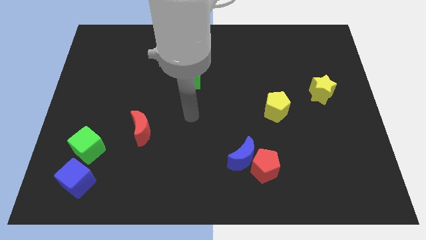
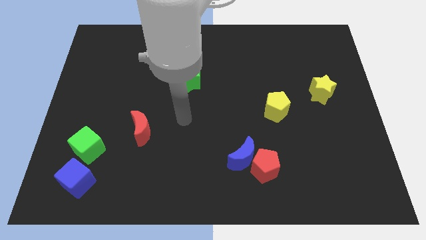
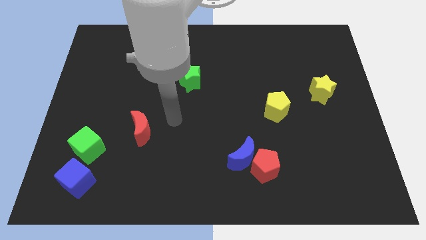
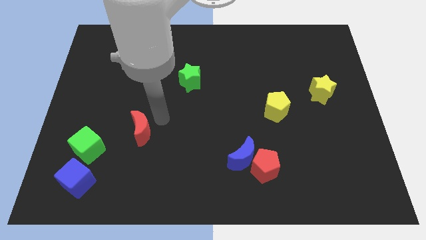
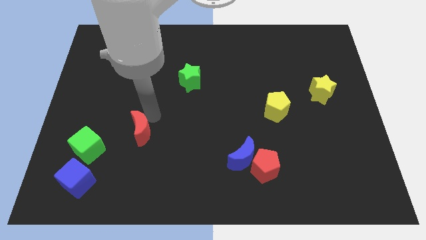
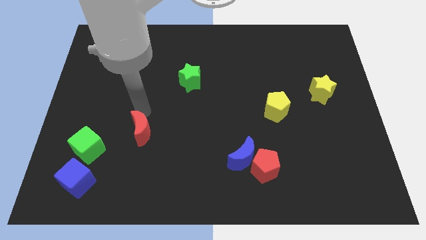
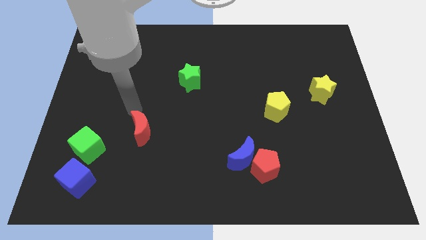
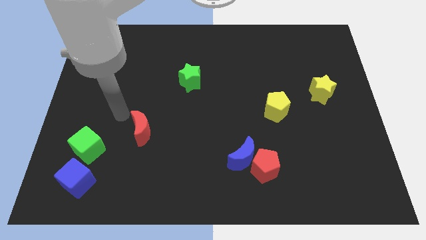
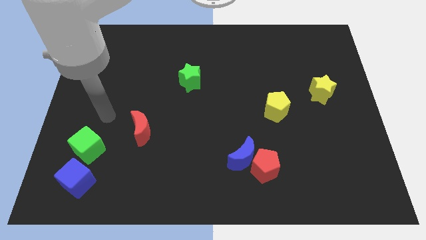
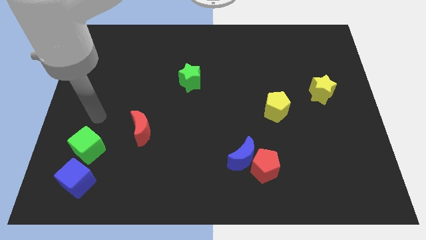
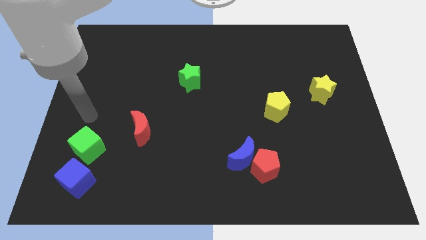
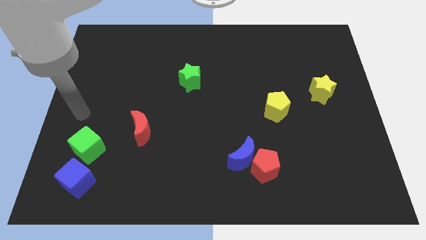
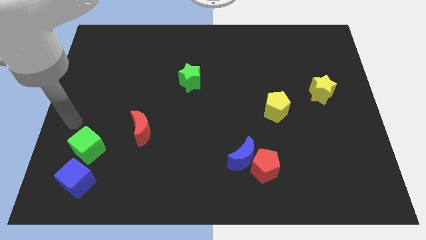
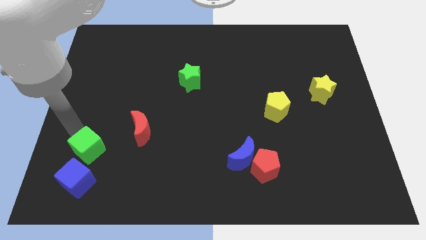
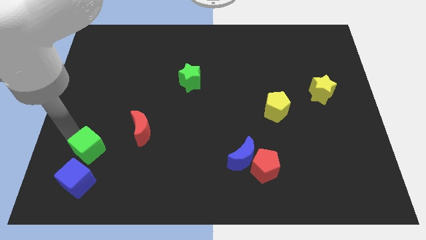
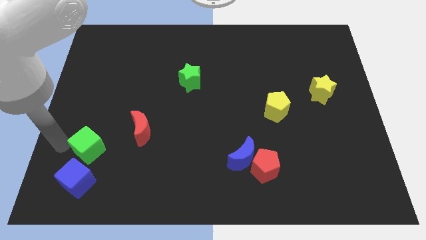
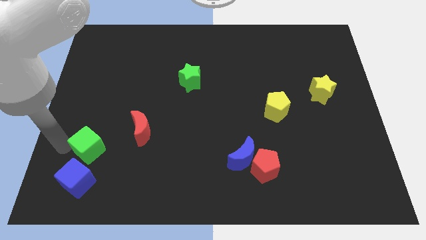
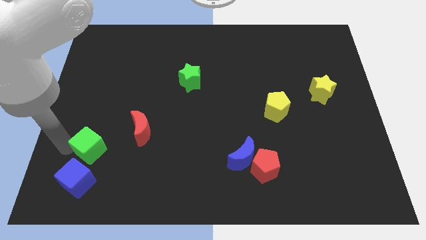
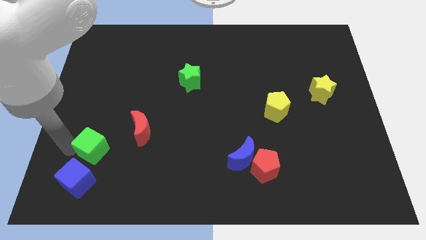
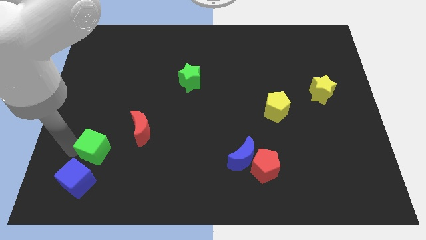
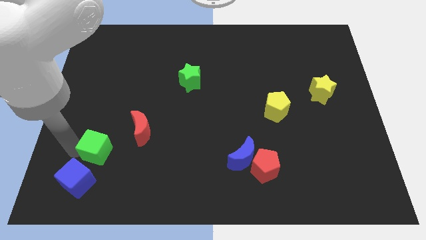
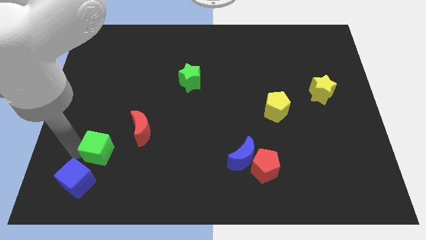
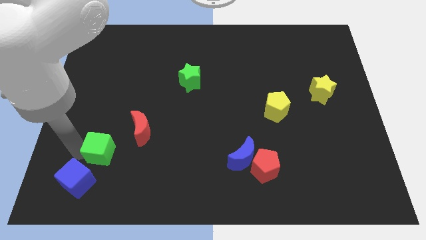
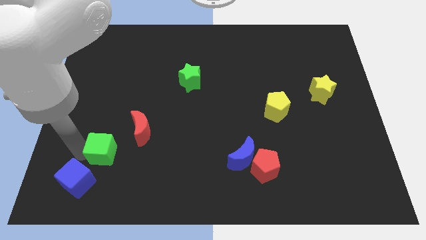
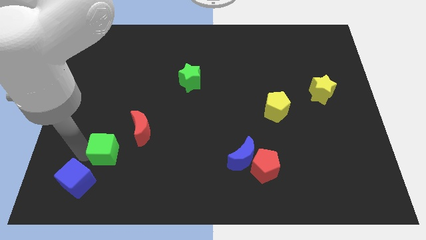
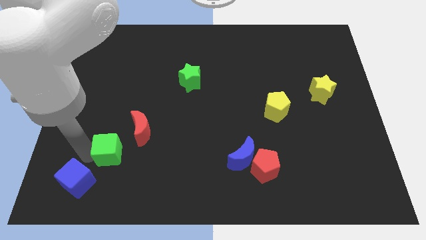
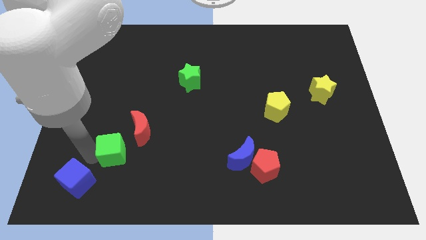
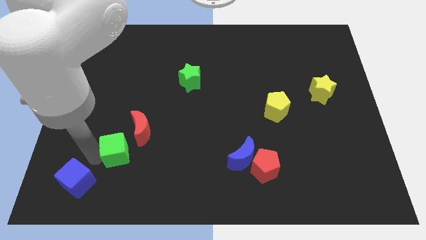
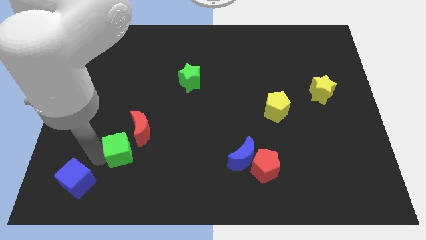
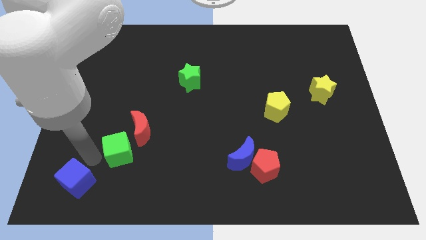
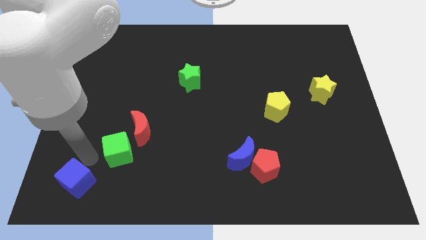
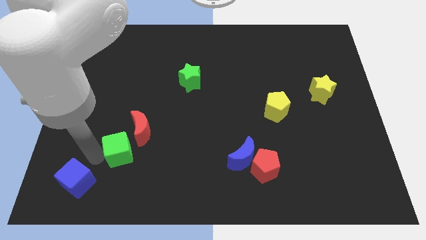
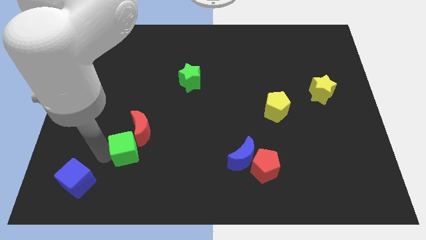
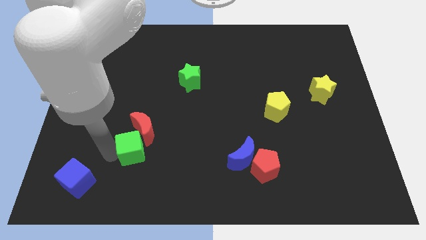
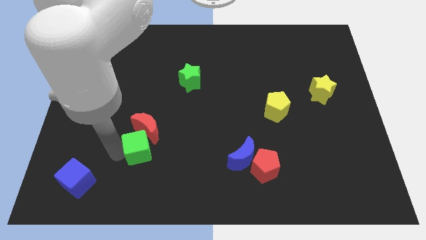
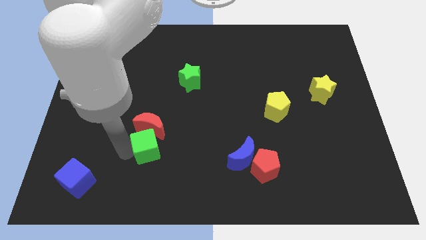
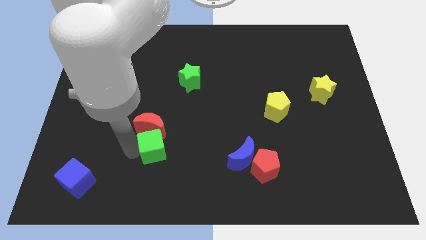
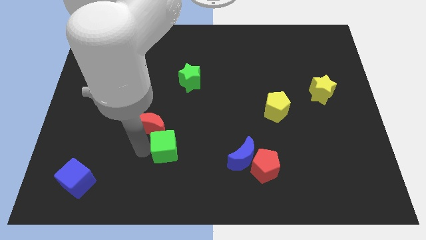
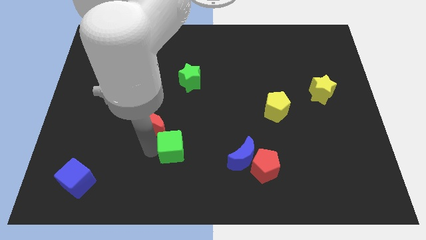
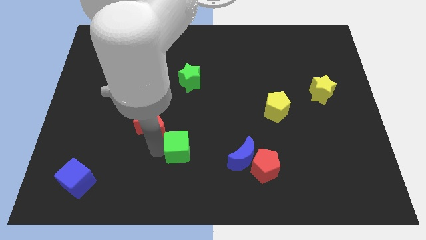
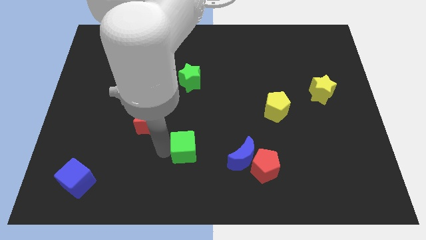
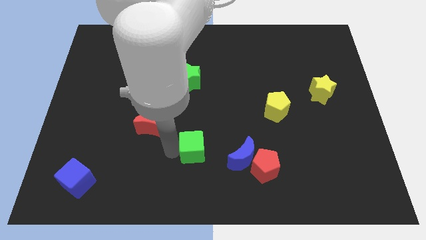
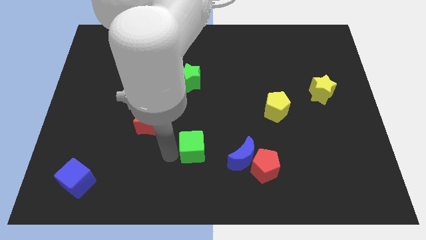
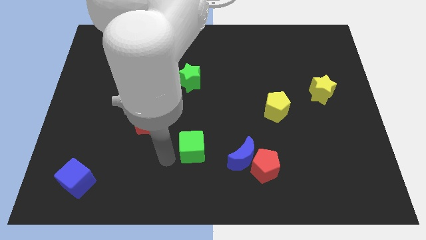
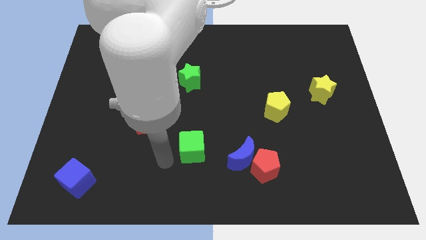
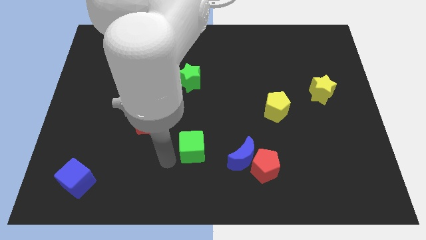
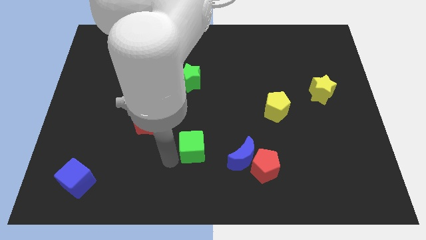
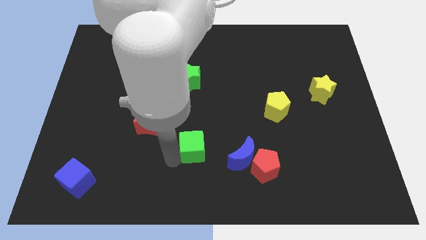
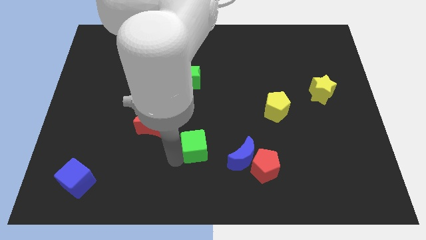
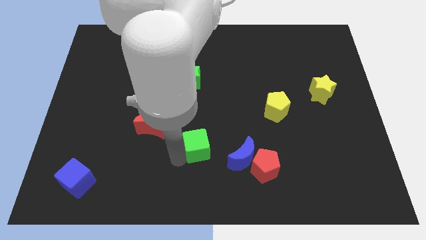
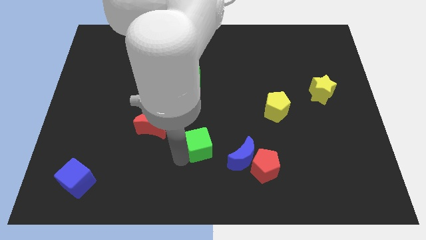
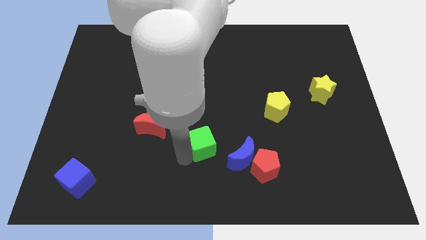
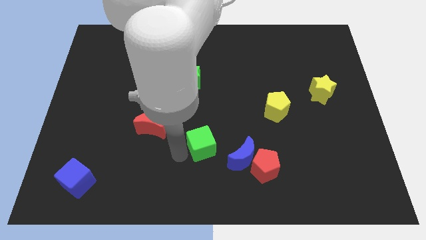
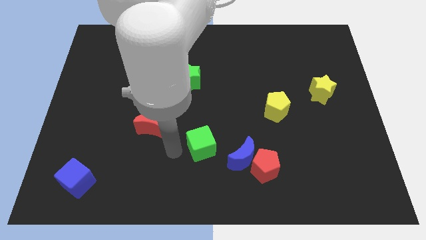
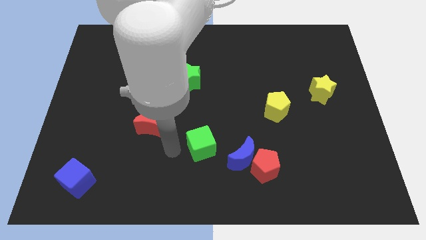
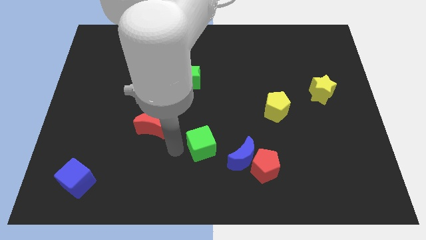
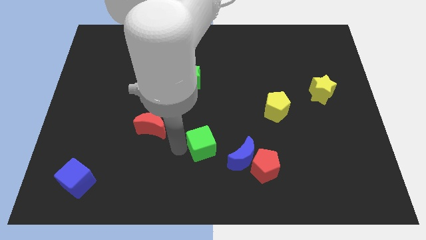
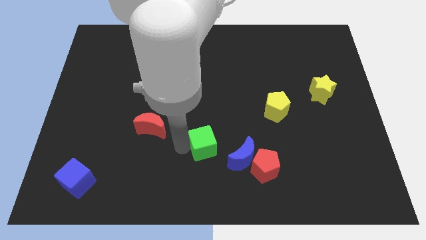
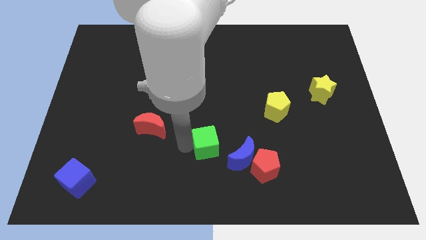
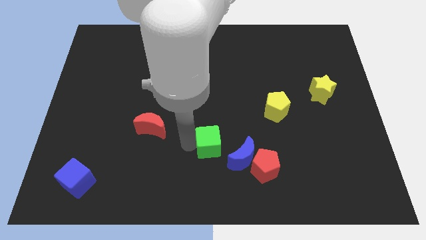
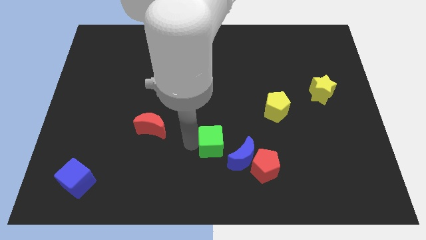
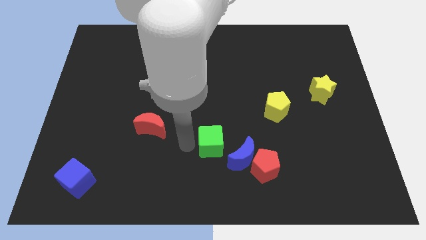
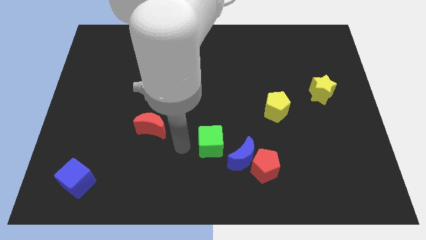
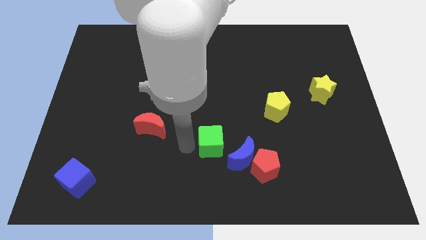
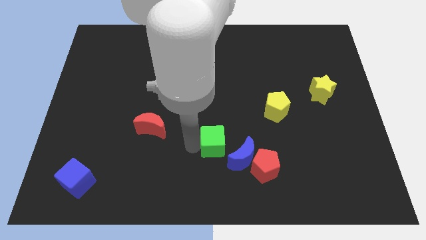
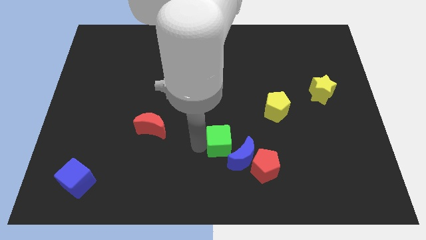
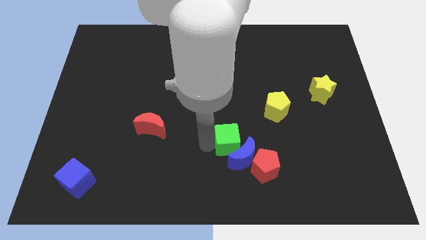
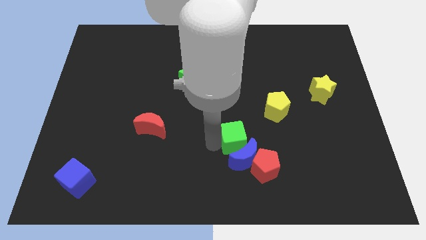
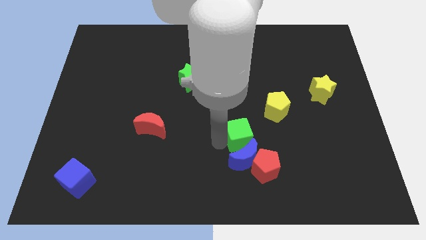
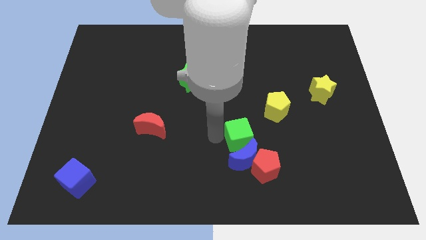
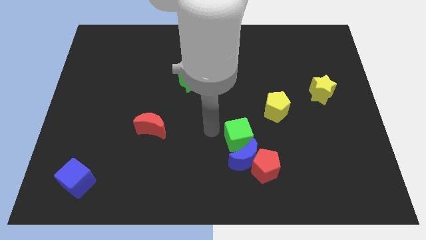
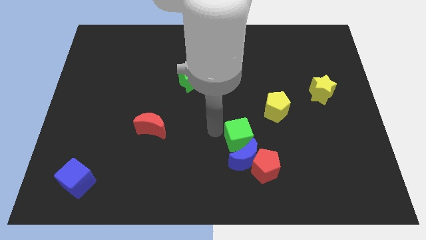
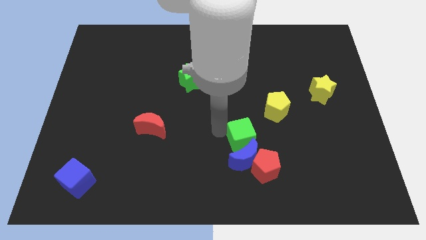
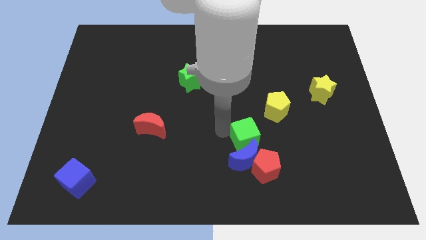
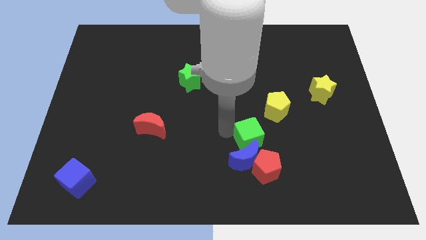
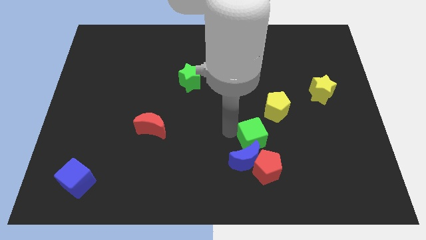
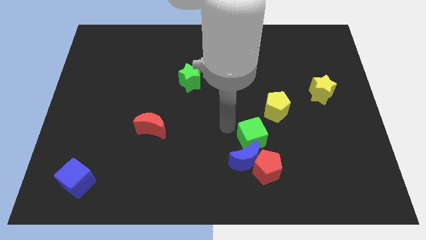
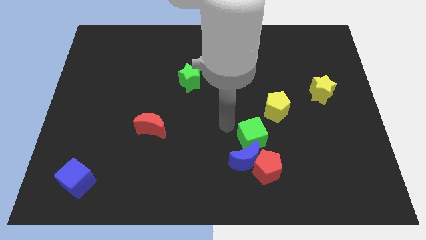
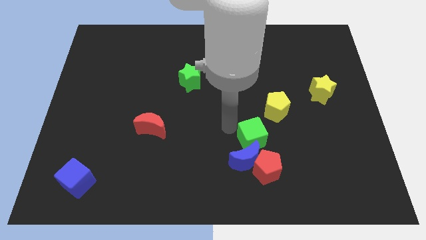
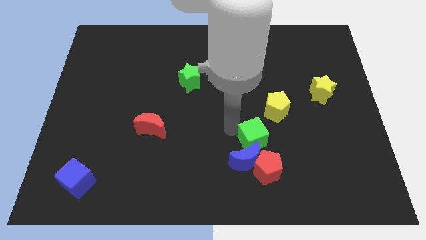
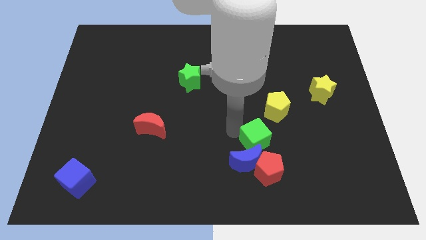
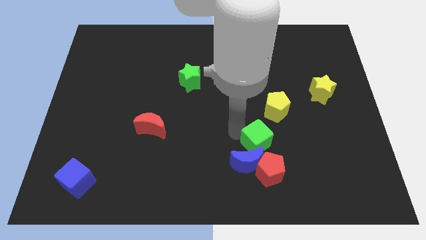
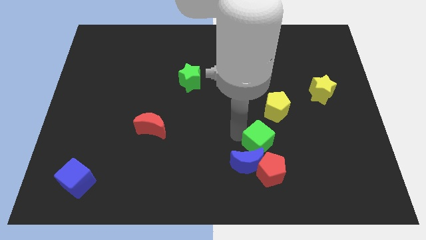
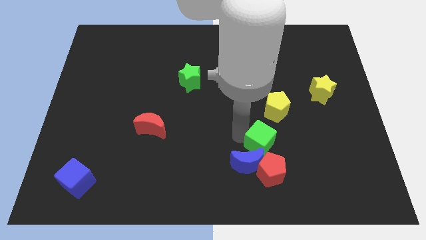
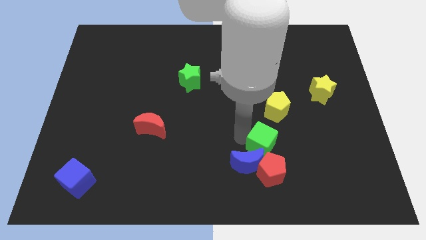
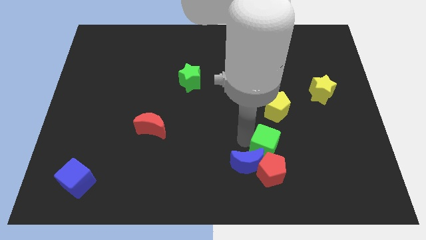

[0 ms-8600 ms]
slide the green cube just right of the blue moon
